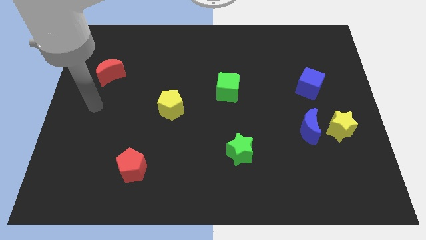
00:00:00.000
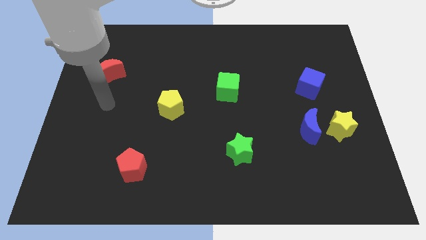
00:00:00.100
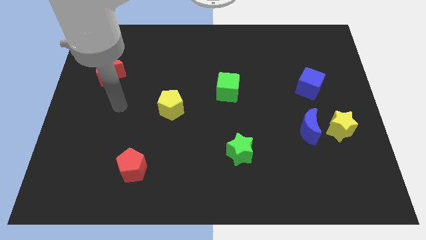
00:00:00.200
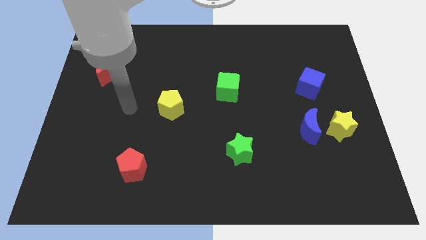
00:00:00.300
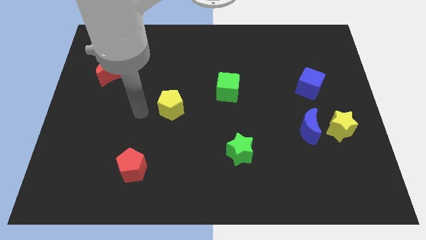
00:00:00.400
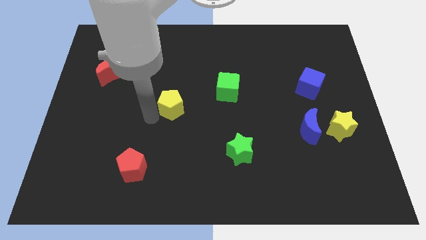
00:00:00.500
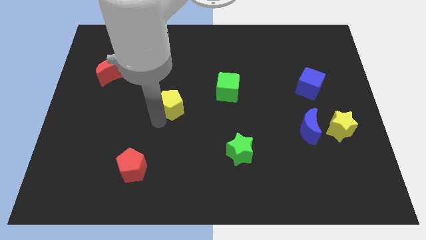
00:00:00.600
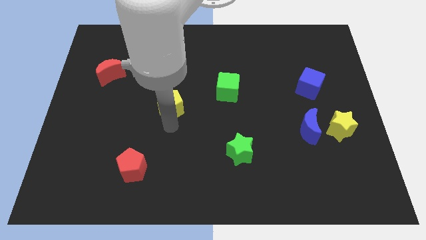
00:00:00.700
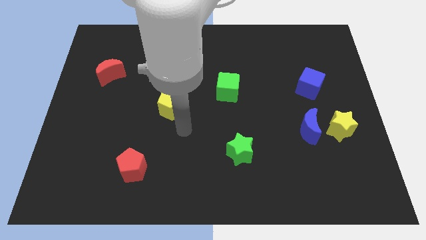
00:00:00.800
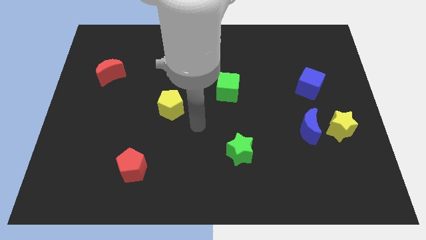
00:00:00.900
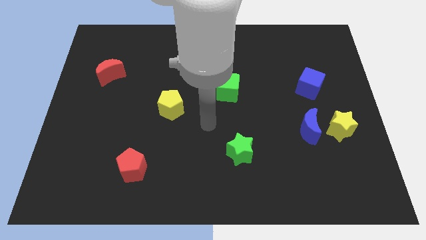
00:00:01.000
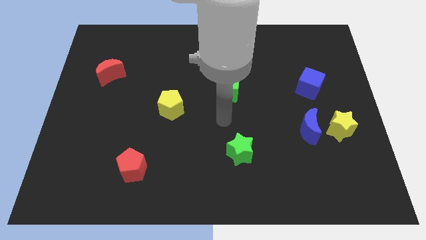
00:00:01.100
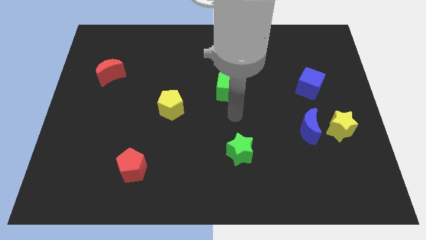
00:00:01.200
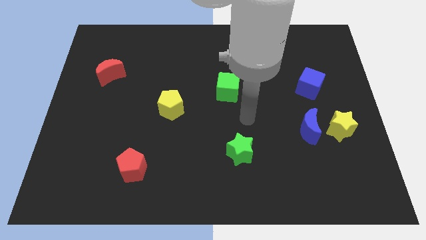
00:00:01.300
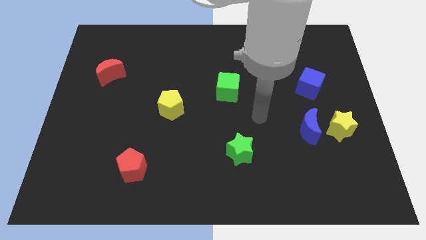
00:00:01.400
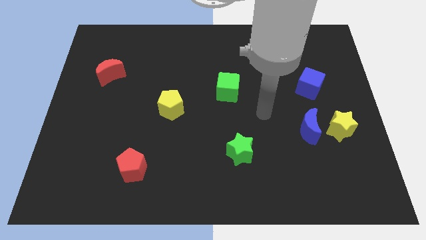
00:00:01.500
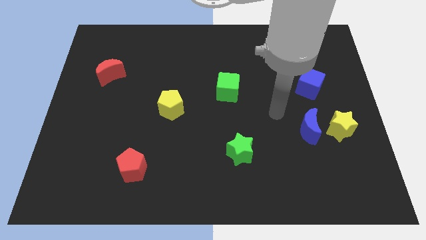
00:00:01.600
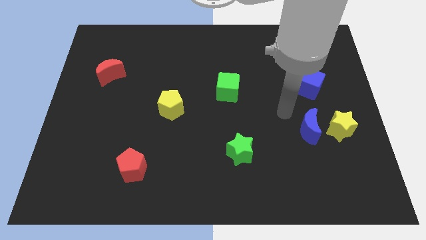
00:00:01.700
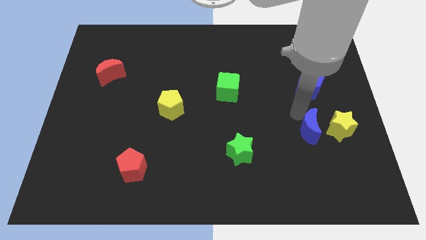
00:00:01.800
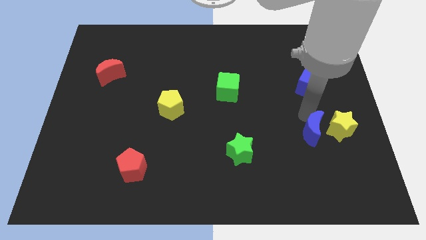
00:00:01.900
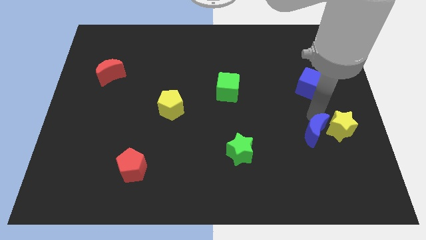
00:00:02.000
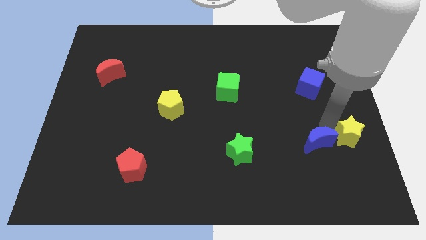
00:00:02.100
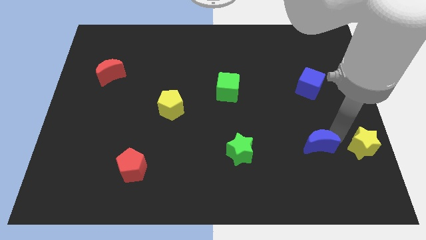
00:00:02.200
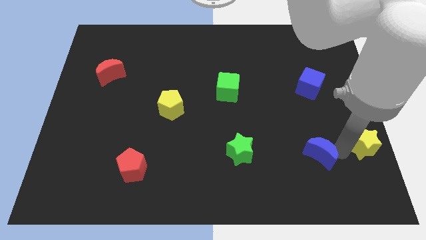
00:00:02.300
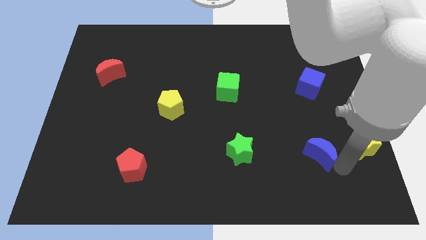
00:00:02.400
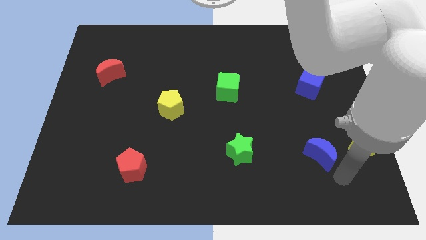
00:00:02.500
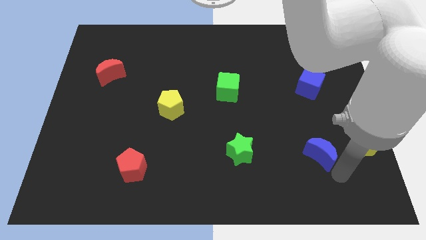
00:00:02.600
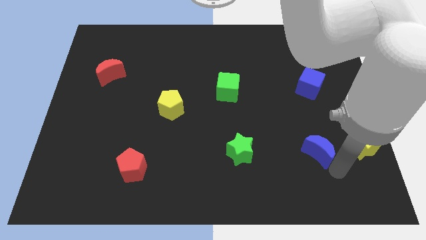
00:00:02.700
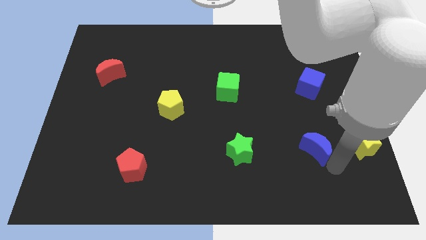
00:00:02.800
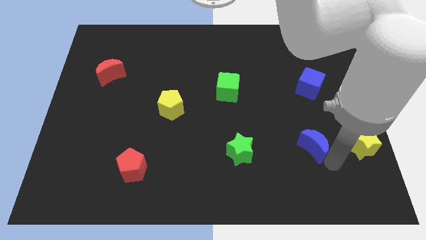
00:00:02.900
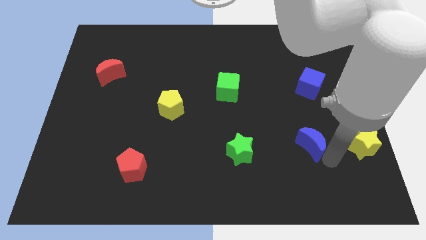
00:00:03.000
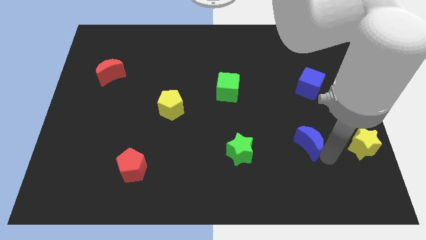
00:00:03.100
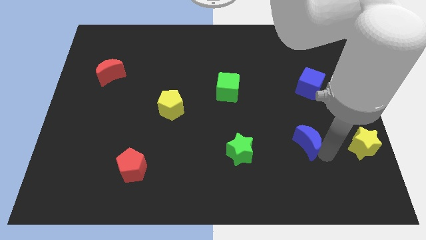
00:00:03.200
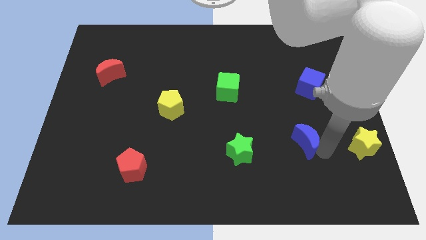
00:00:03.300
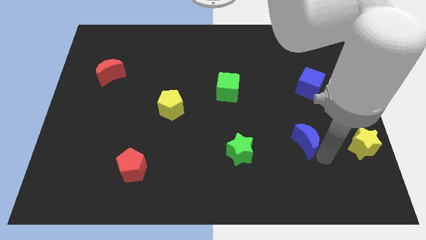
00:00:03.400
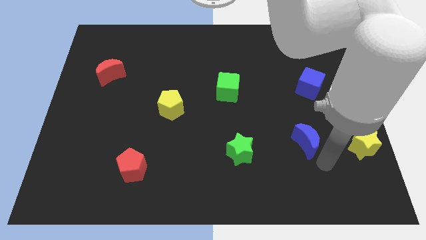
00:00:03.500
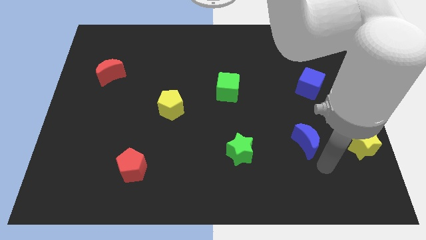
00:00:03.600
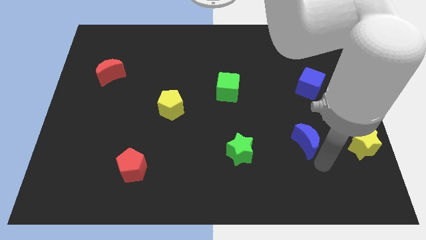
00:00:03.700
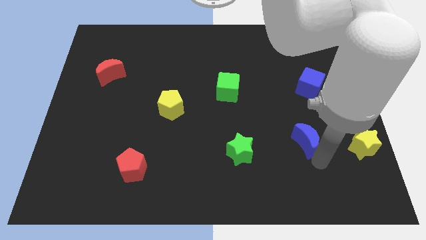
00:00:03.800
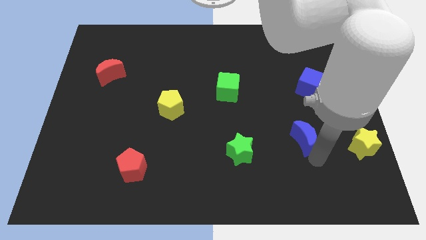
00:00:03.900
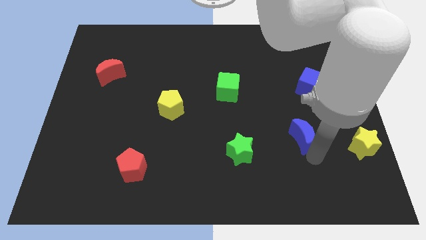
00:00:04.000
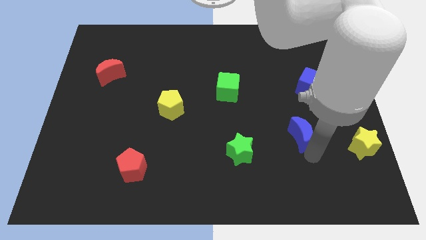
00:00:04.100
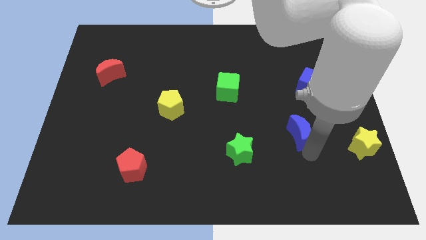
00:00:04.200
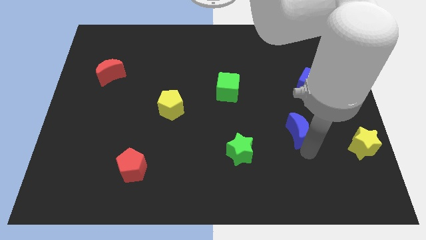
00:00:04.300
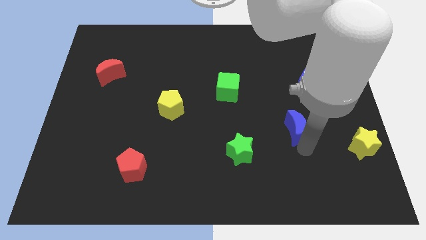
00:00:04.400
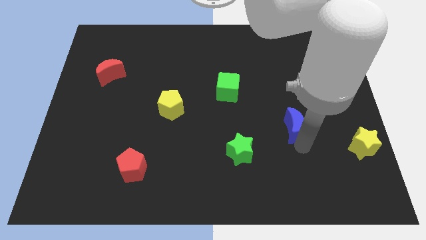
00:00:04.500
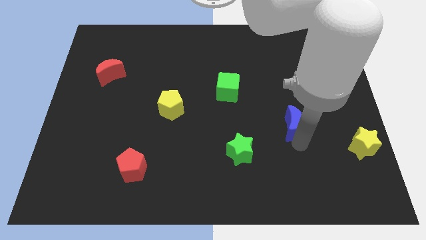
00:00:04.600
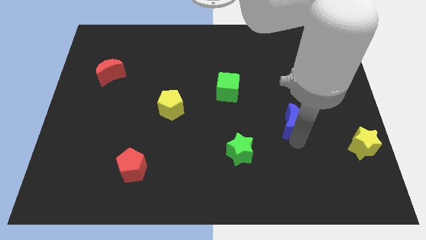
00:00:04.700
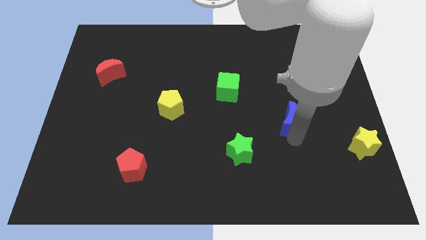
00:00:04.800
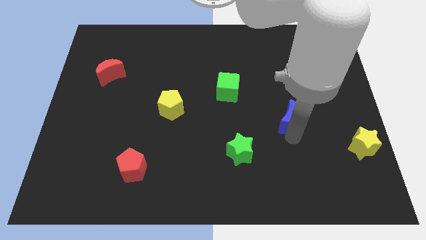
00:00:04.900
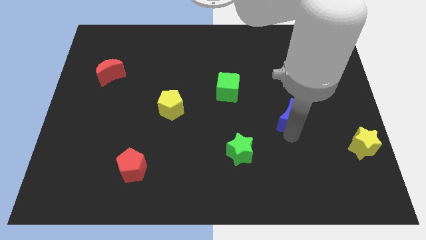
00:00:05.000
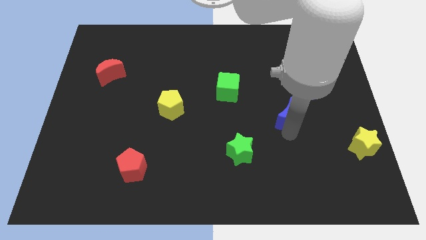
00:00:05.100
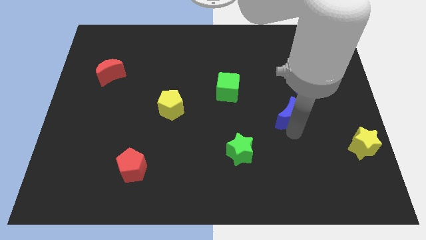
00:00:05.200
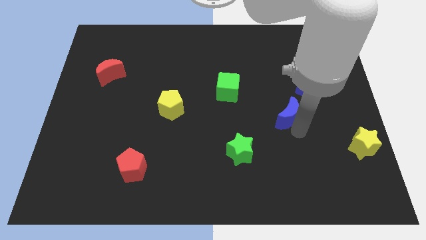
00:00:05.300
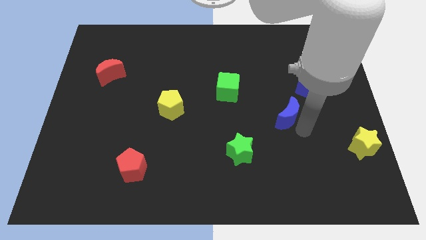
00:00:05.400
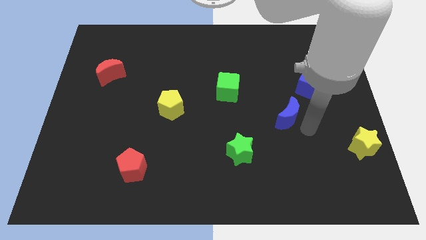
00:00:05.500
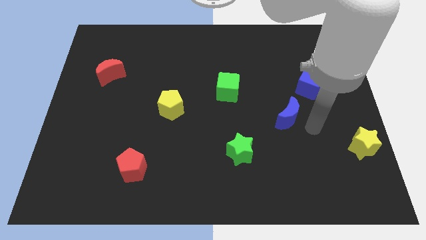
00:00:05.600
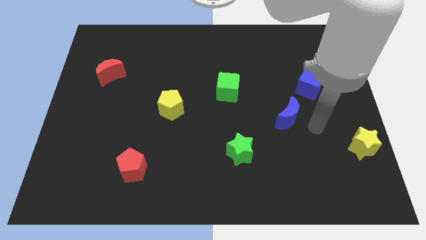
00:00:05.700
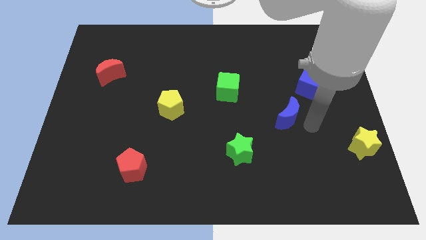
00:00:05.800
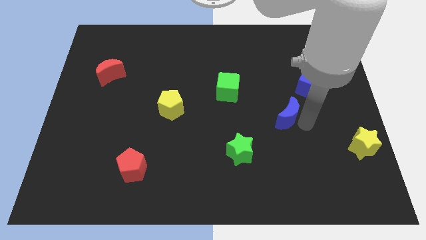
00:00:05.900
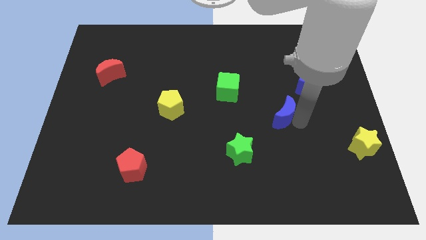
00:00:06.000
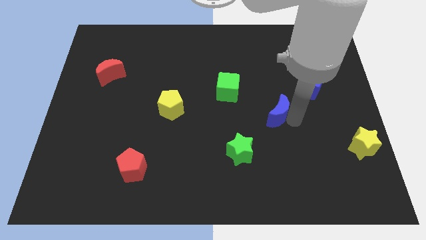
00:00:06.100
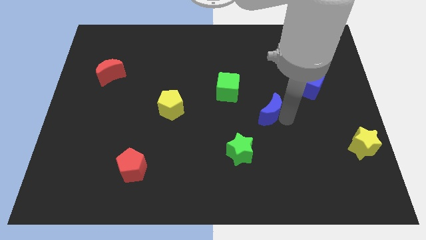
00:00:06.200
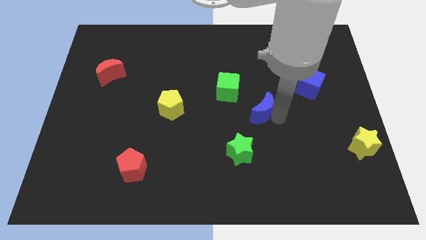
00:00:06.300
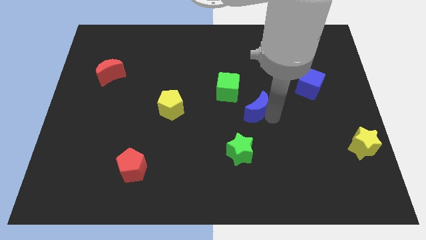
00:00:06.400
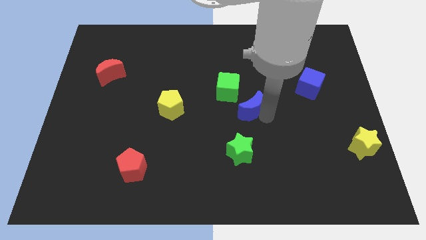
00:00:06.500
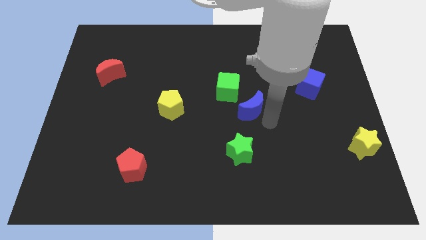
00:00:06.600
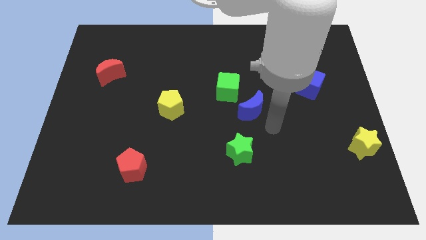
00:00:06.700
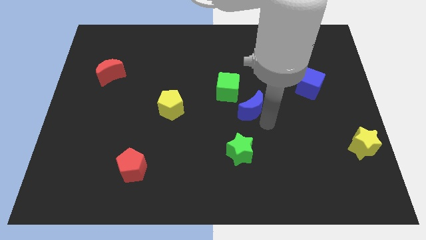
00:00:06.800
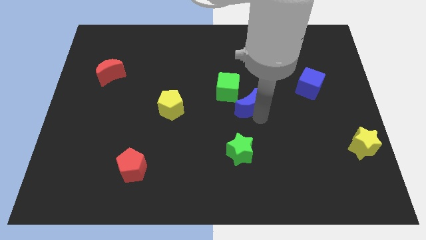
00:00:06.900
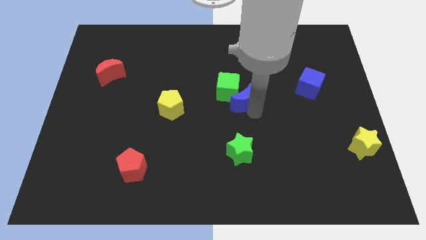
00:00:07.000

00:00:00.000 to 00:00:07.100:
put the blue moon towards the green cube
